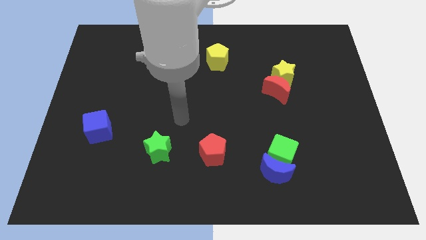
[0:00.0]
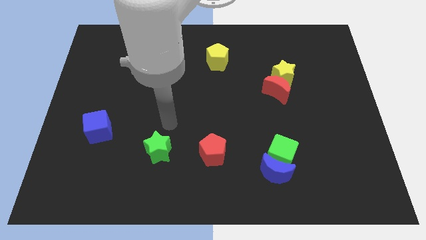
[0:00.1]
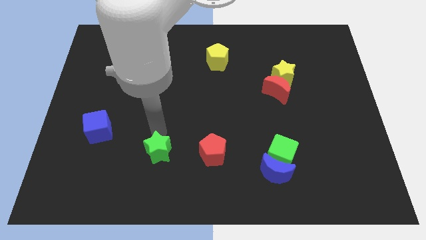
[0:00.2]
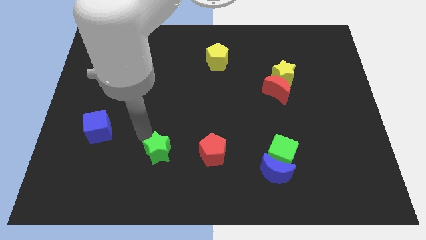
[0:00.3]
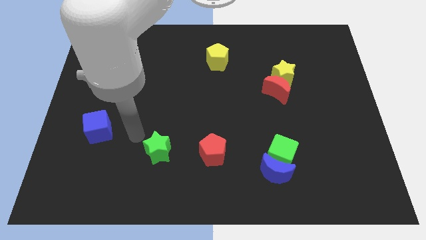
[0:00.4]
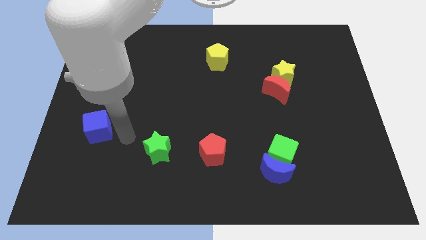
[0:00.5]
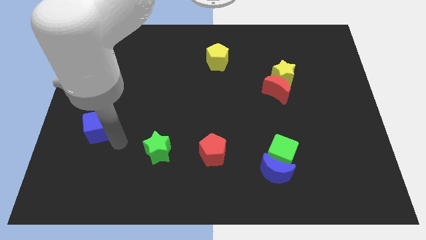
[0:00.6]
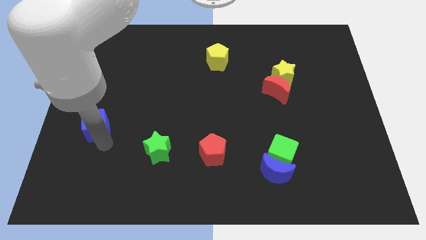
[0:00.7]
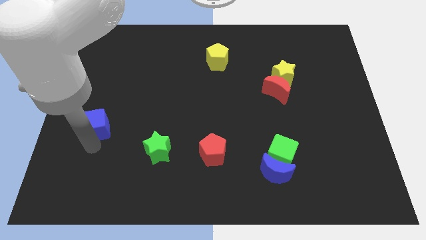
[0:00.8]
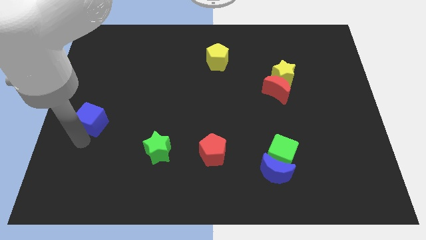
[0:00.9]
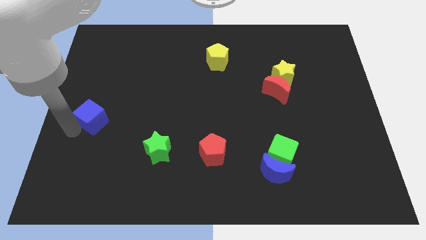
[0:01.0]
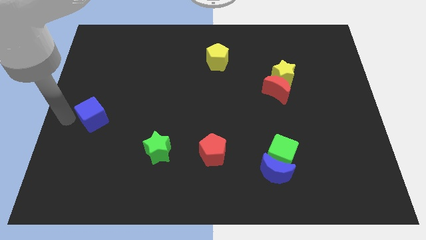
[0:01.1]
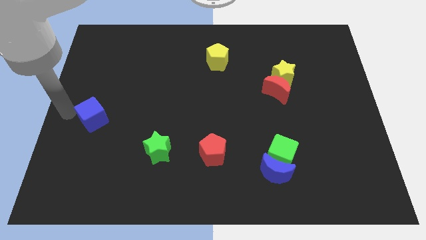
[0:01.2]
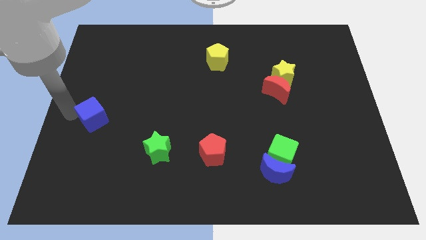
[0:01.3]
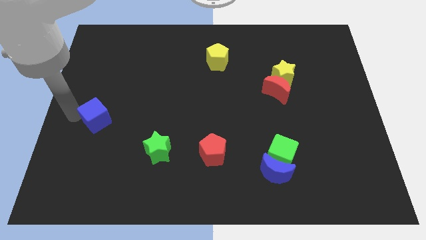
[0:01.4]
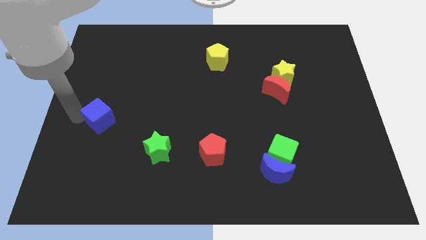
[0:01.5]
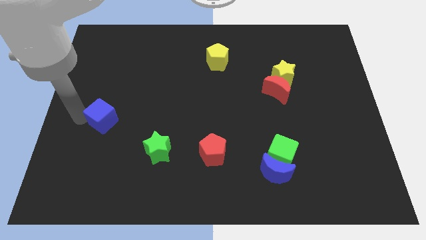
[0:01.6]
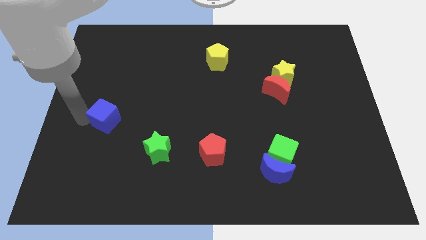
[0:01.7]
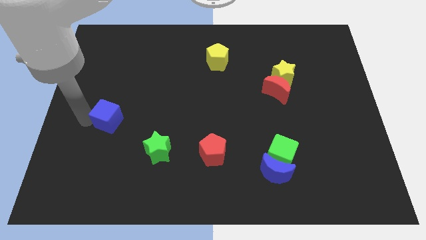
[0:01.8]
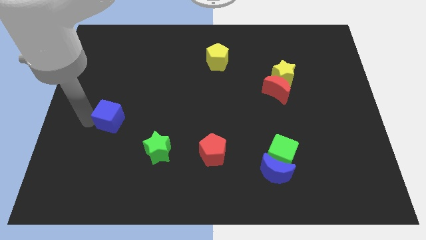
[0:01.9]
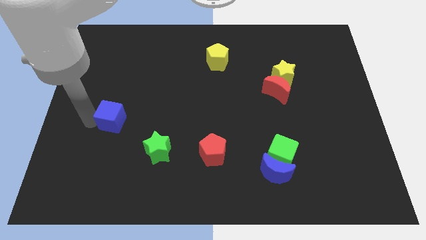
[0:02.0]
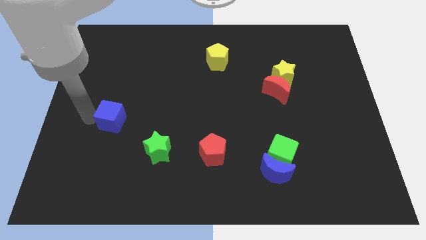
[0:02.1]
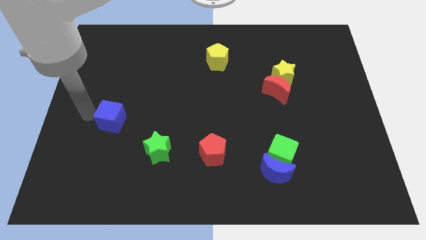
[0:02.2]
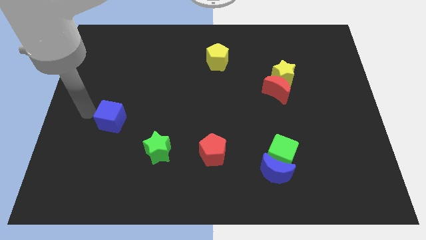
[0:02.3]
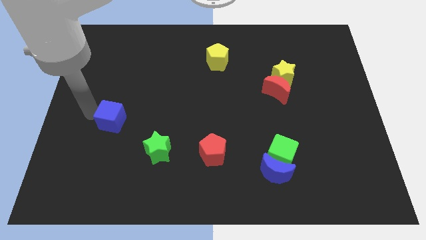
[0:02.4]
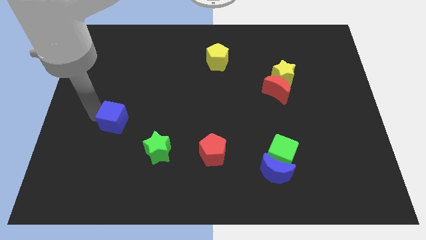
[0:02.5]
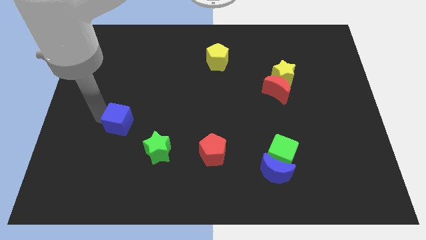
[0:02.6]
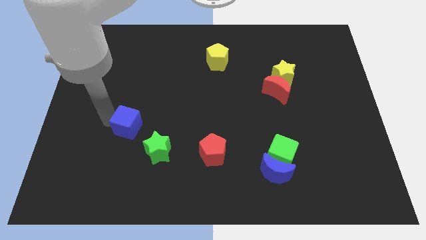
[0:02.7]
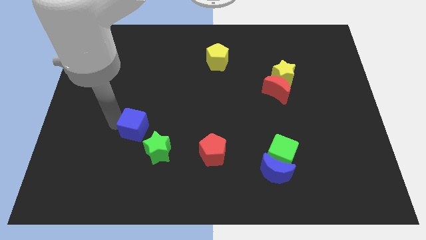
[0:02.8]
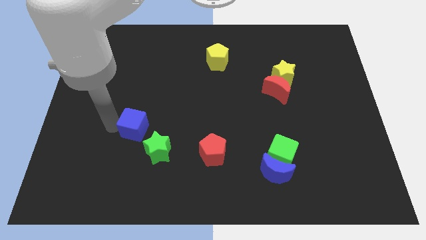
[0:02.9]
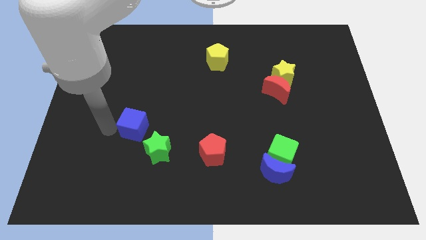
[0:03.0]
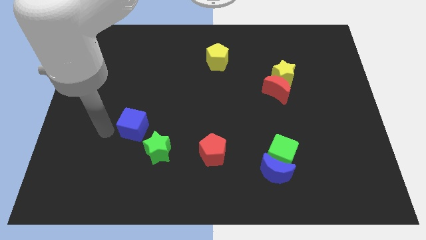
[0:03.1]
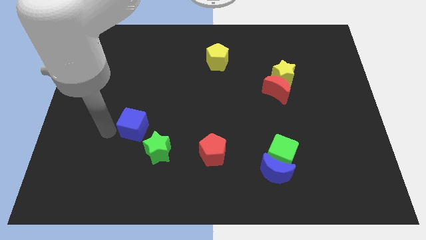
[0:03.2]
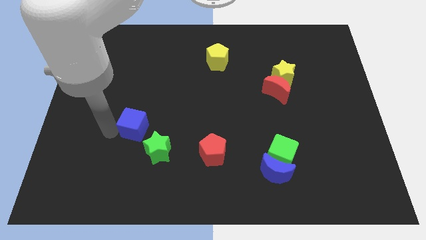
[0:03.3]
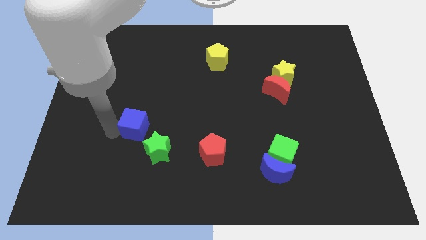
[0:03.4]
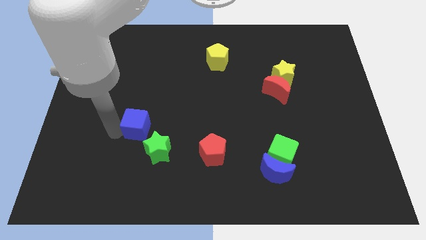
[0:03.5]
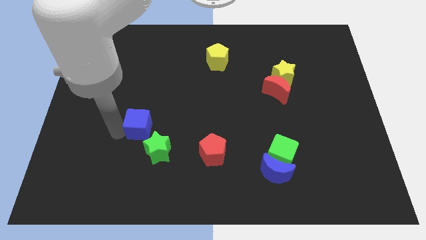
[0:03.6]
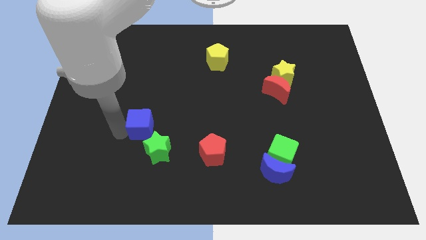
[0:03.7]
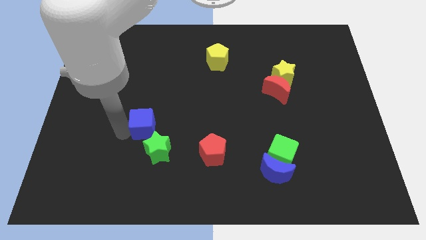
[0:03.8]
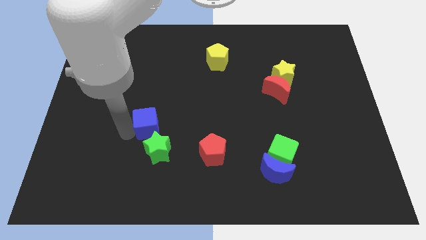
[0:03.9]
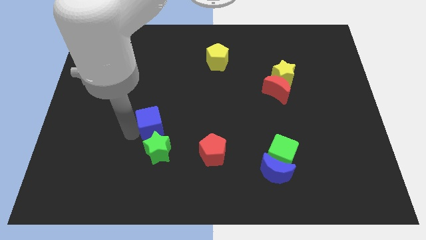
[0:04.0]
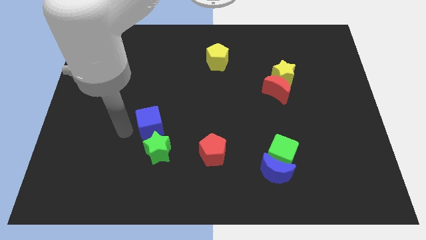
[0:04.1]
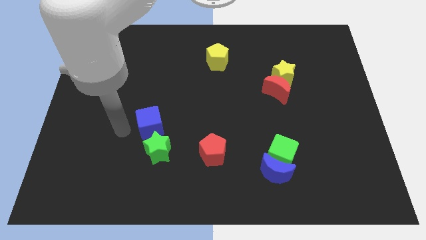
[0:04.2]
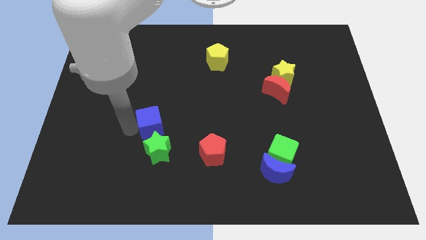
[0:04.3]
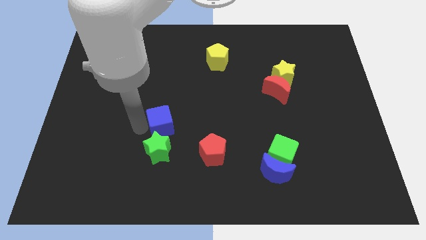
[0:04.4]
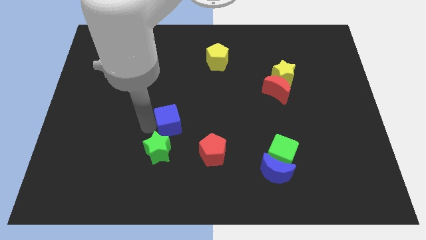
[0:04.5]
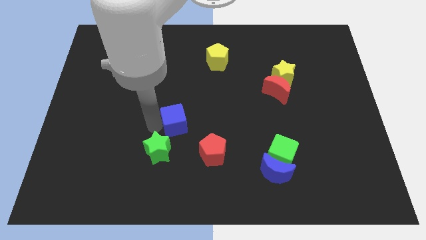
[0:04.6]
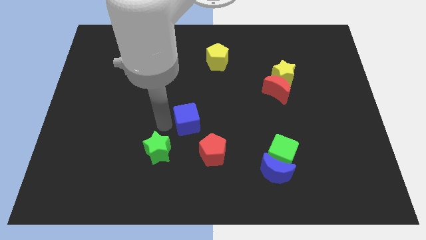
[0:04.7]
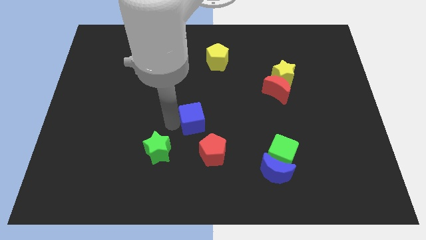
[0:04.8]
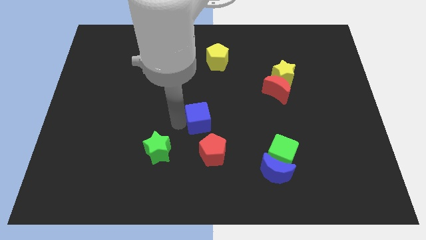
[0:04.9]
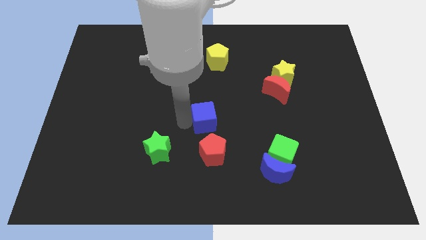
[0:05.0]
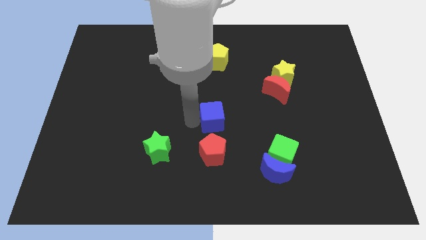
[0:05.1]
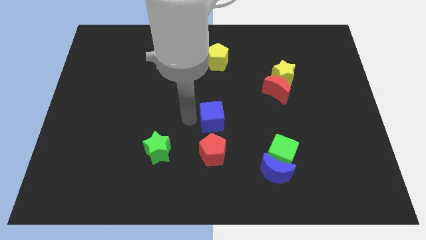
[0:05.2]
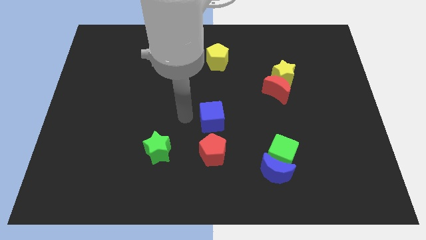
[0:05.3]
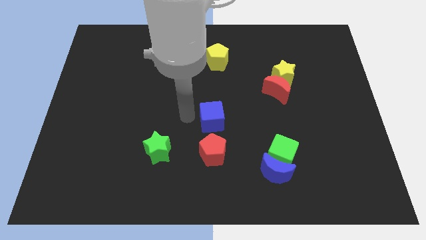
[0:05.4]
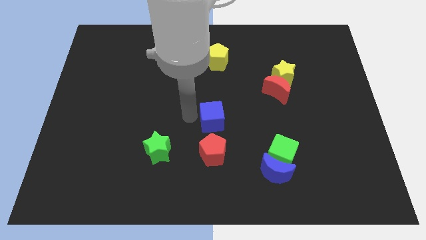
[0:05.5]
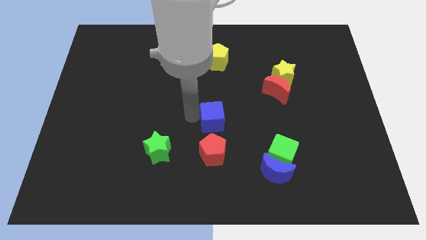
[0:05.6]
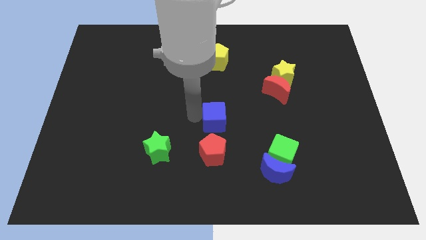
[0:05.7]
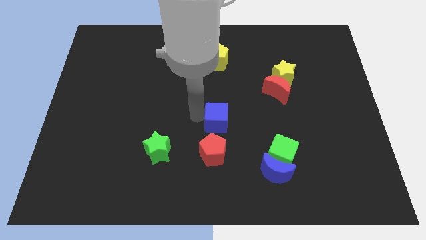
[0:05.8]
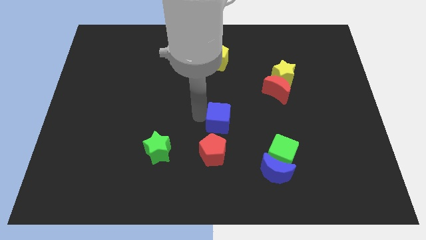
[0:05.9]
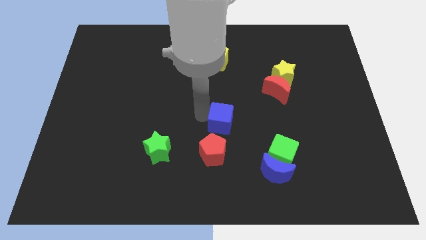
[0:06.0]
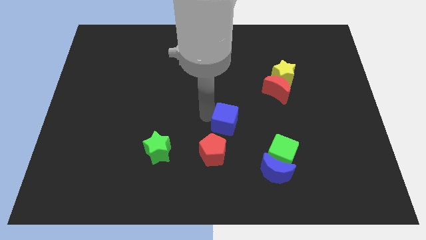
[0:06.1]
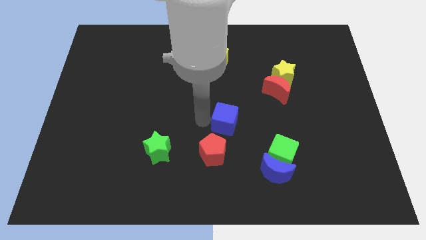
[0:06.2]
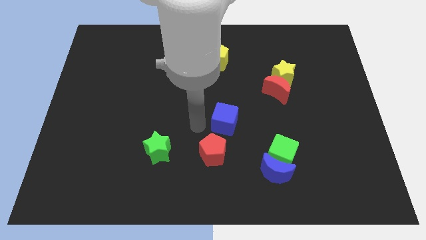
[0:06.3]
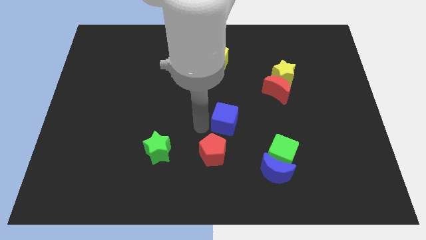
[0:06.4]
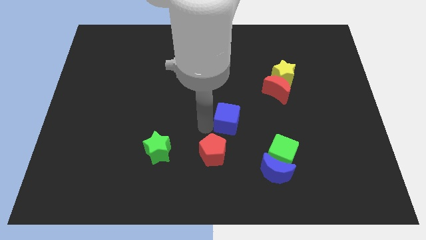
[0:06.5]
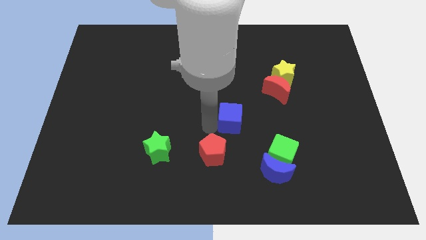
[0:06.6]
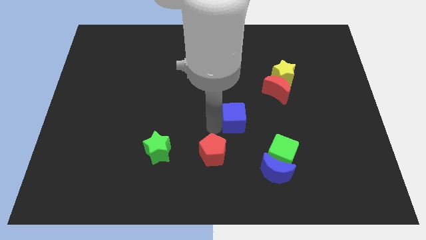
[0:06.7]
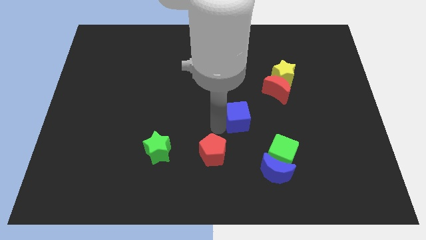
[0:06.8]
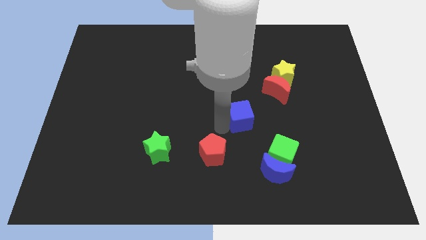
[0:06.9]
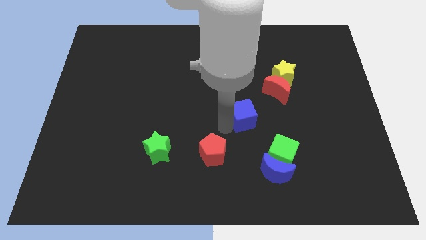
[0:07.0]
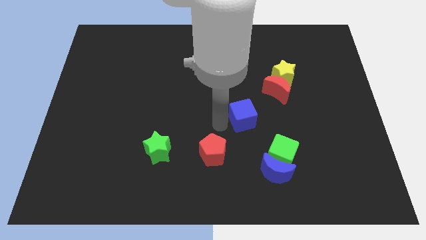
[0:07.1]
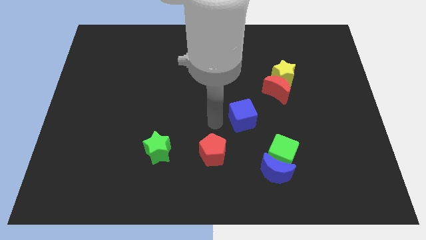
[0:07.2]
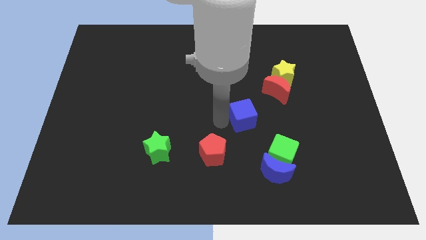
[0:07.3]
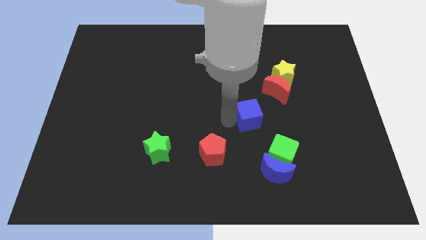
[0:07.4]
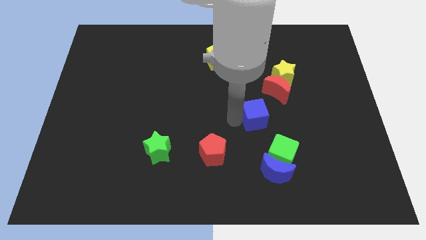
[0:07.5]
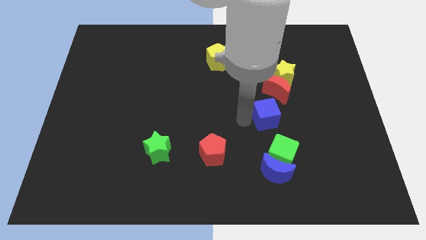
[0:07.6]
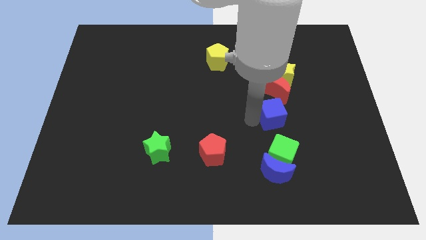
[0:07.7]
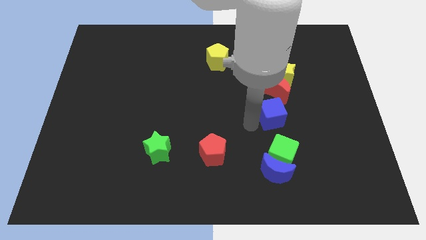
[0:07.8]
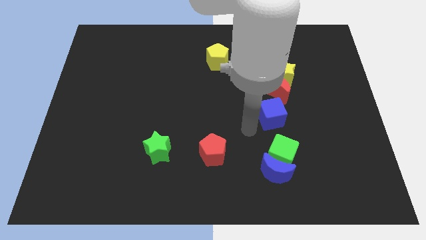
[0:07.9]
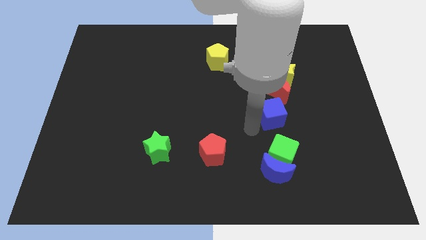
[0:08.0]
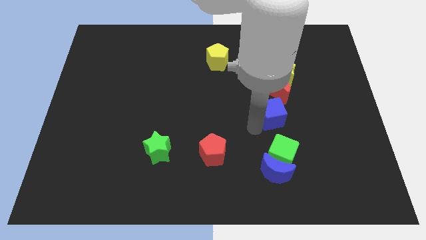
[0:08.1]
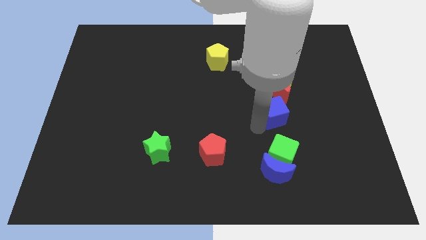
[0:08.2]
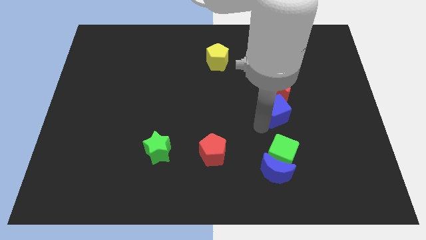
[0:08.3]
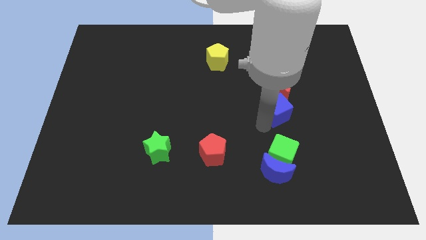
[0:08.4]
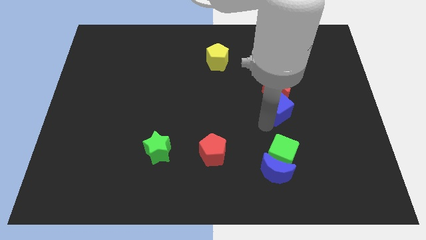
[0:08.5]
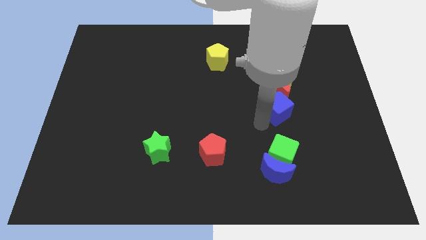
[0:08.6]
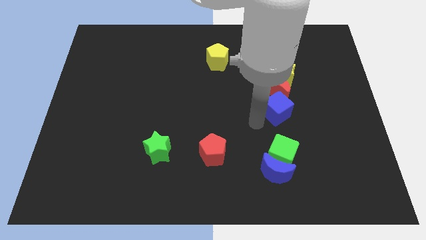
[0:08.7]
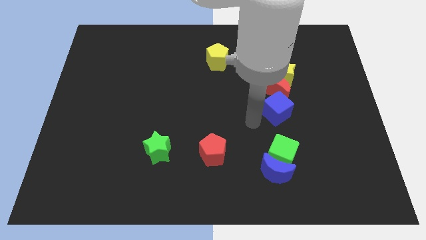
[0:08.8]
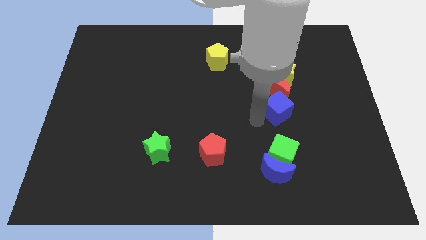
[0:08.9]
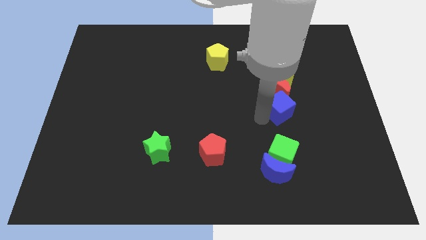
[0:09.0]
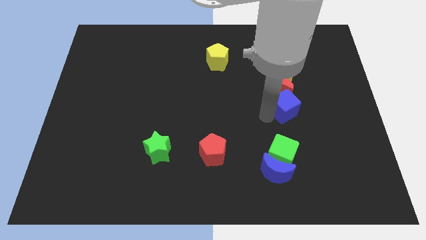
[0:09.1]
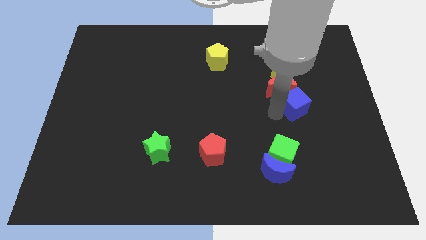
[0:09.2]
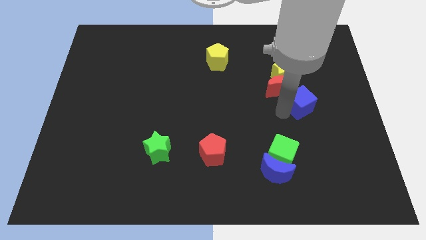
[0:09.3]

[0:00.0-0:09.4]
put the blue cube to the bottom right side of the yellow star
